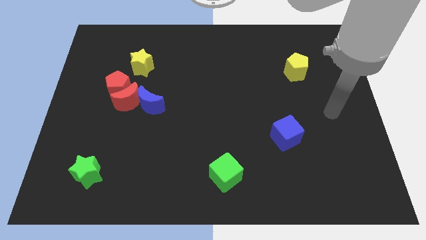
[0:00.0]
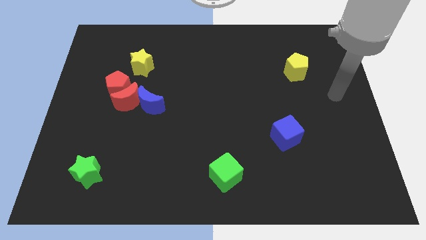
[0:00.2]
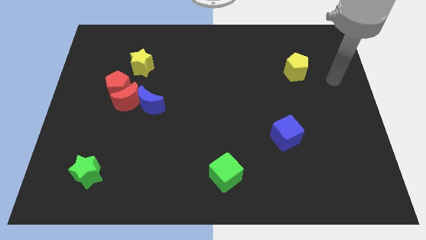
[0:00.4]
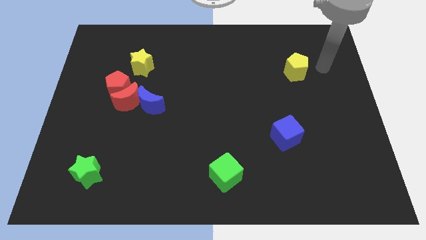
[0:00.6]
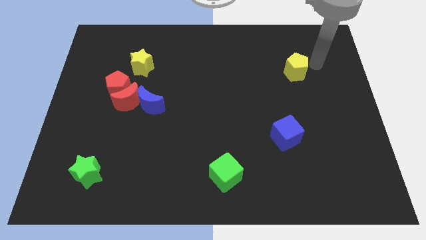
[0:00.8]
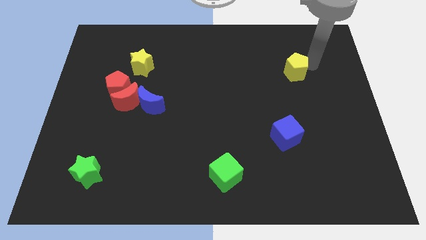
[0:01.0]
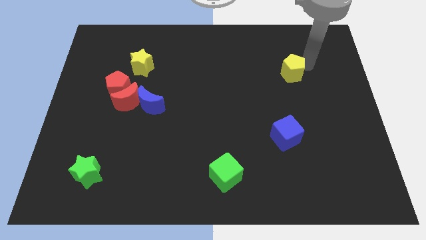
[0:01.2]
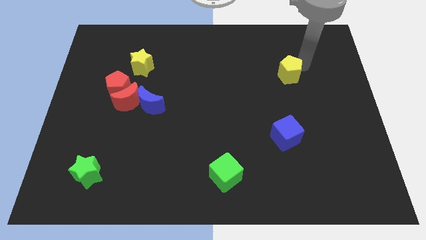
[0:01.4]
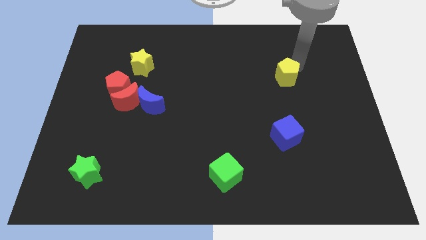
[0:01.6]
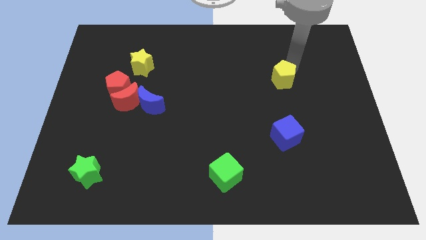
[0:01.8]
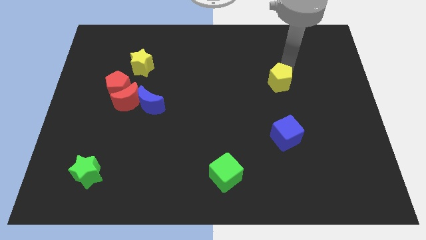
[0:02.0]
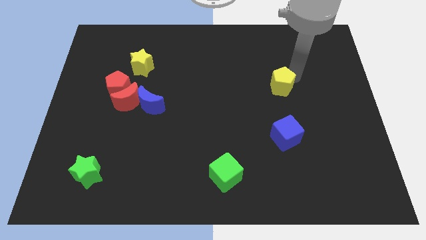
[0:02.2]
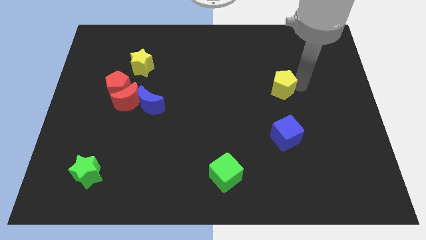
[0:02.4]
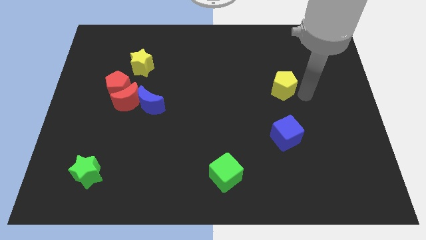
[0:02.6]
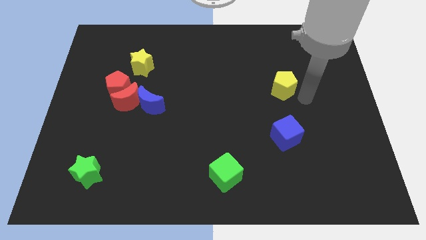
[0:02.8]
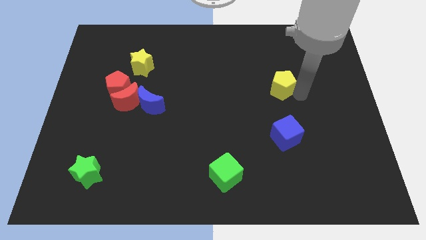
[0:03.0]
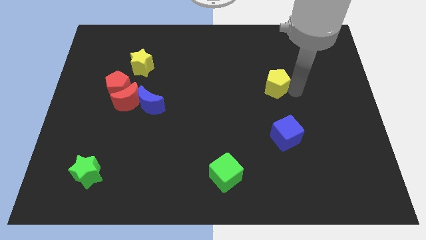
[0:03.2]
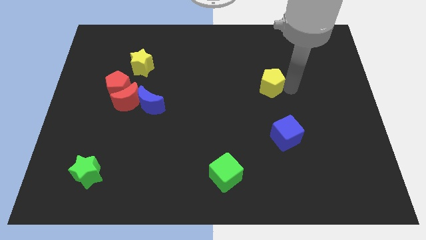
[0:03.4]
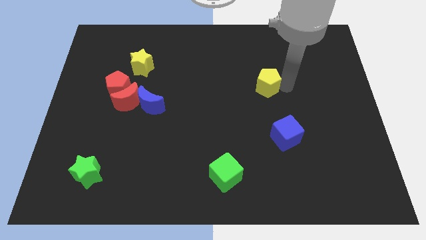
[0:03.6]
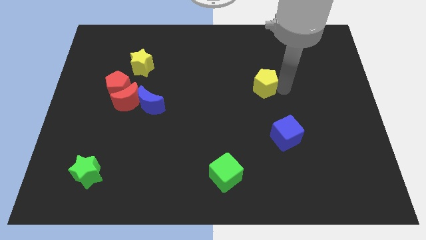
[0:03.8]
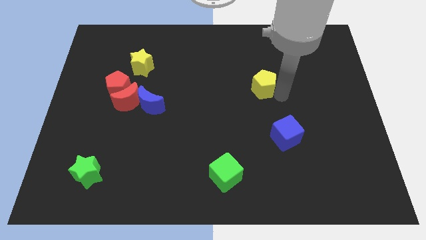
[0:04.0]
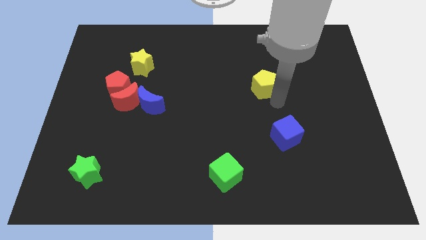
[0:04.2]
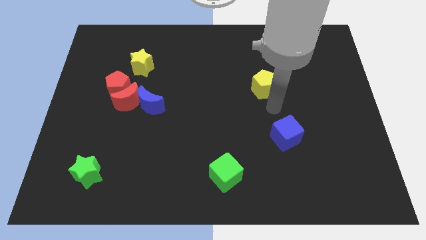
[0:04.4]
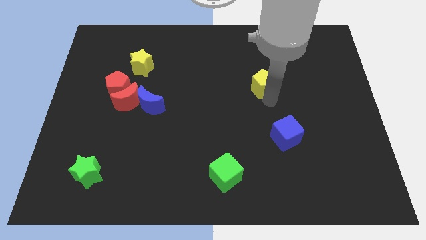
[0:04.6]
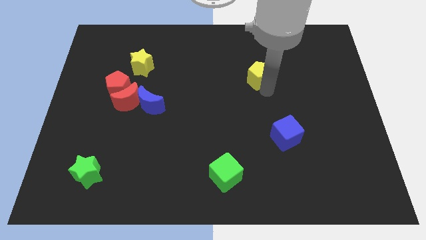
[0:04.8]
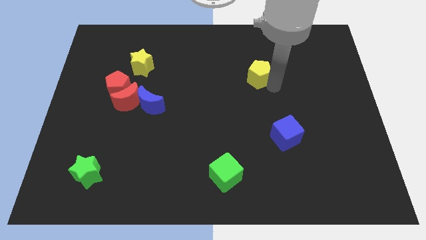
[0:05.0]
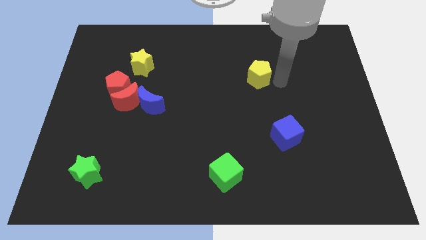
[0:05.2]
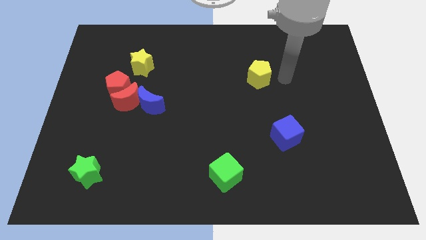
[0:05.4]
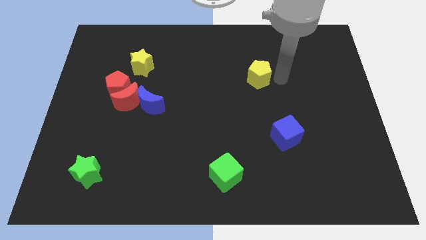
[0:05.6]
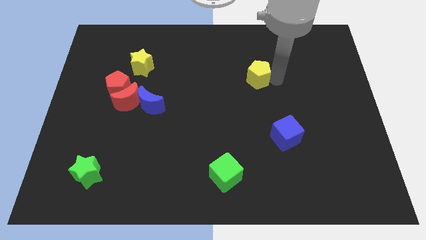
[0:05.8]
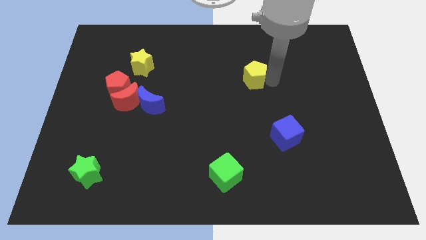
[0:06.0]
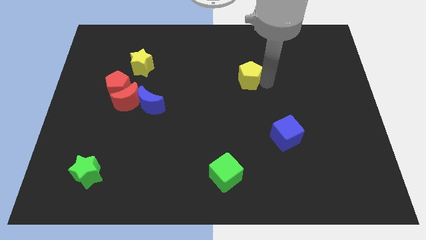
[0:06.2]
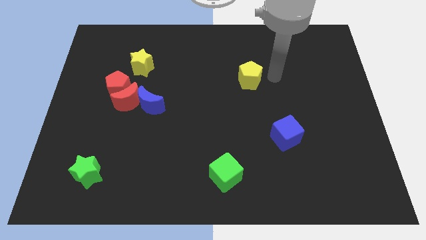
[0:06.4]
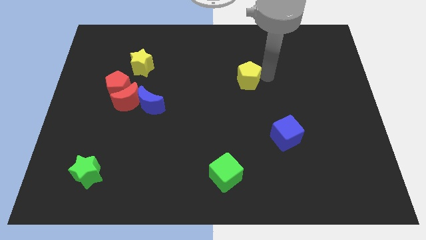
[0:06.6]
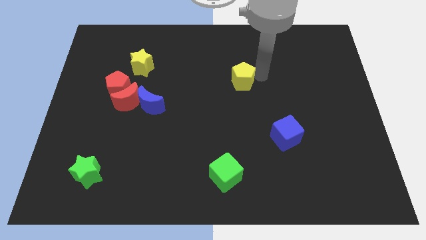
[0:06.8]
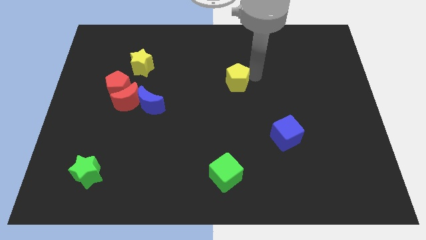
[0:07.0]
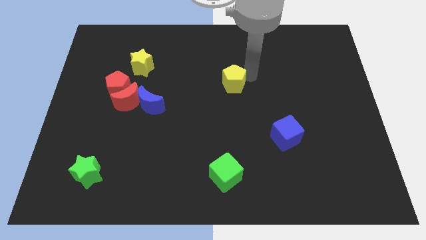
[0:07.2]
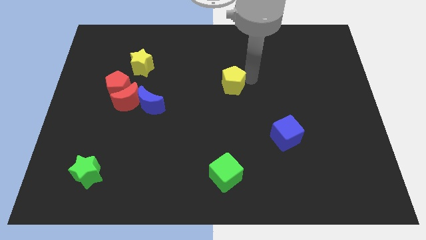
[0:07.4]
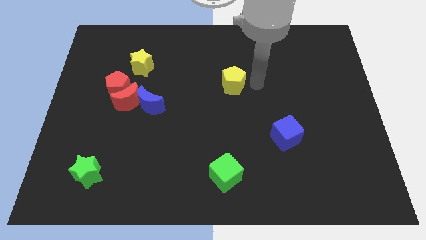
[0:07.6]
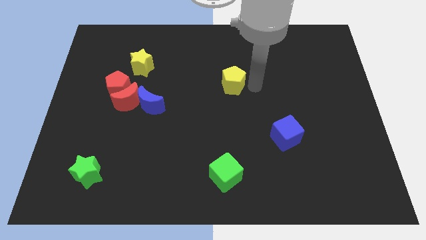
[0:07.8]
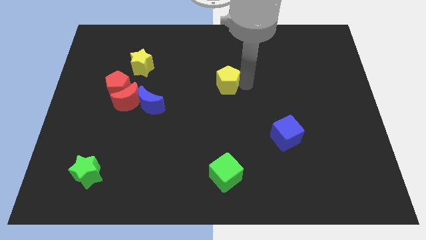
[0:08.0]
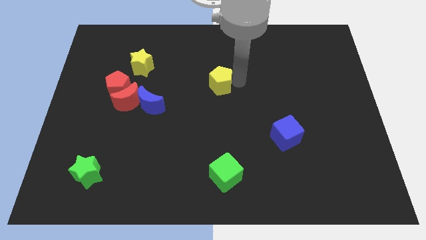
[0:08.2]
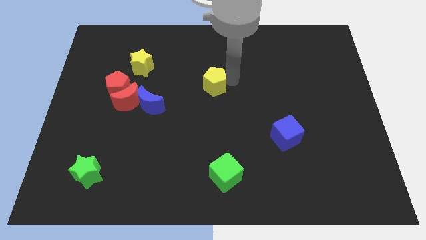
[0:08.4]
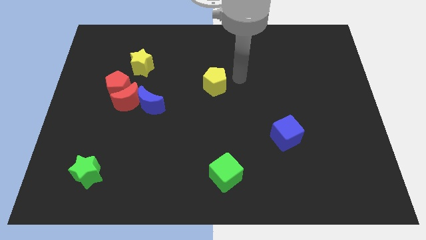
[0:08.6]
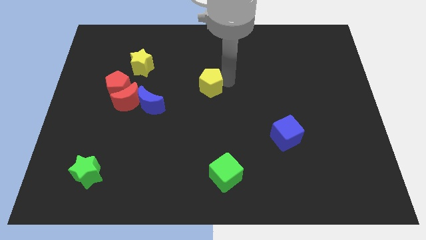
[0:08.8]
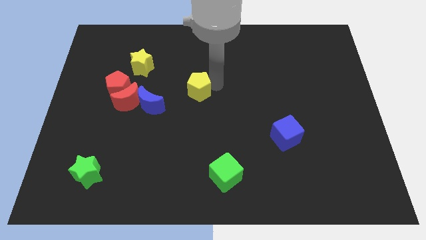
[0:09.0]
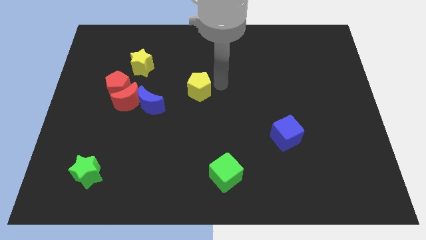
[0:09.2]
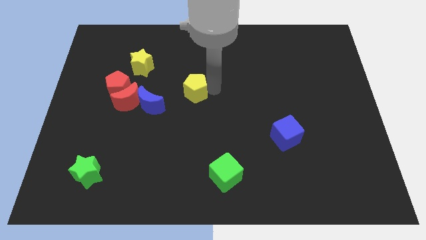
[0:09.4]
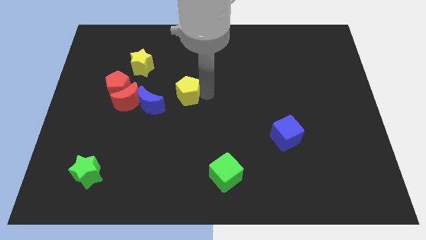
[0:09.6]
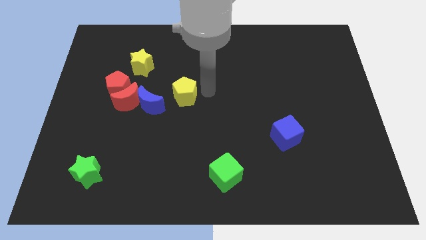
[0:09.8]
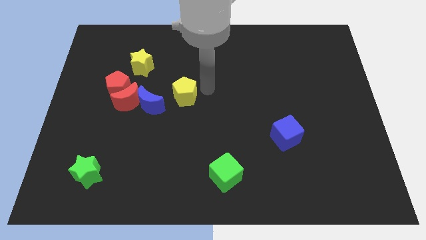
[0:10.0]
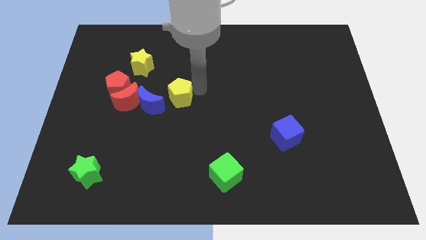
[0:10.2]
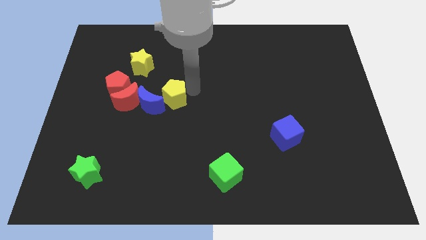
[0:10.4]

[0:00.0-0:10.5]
put the yellow pentagon to the blue moon

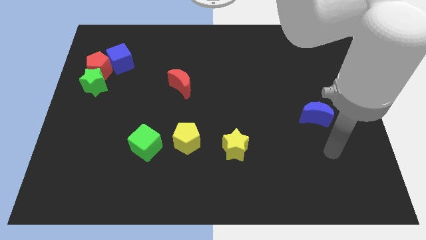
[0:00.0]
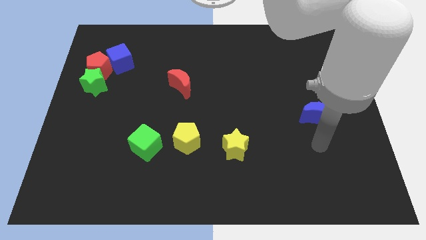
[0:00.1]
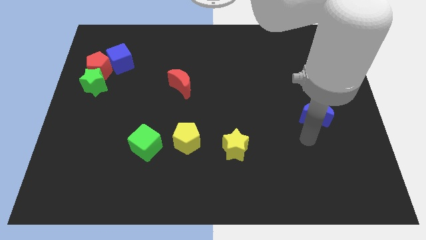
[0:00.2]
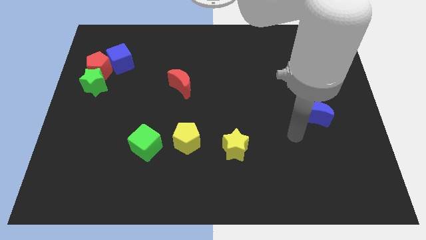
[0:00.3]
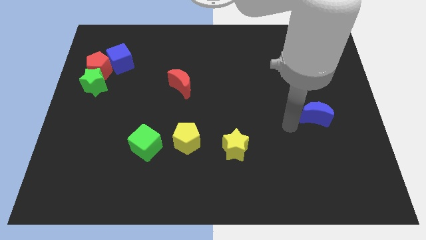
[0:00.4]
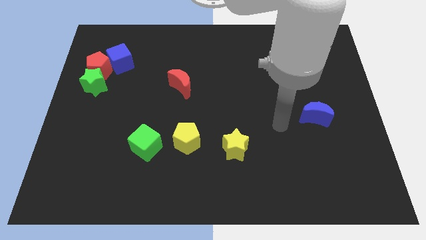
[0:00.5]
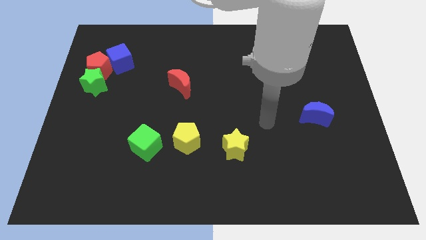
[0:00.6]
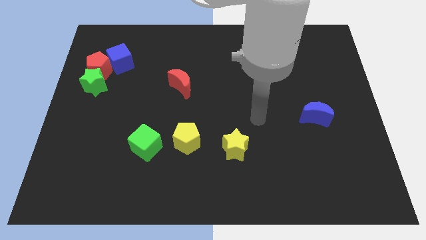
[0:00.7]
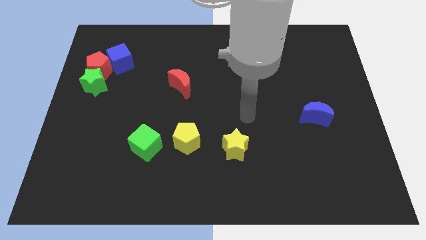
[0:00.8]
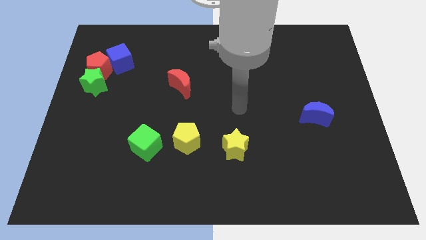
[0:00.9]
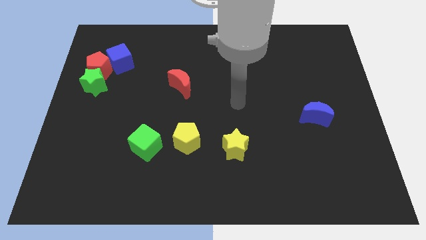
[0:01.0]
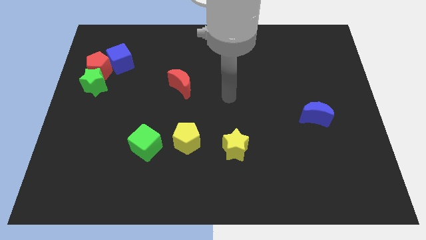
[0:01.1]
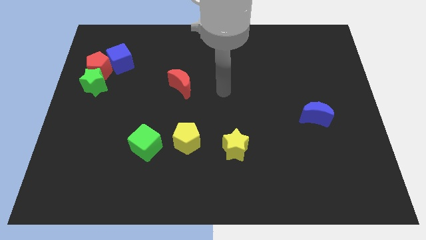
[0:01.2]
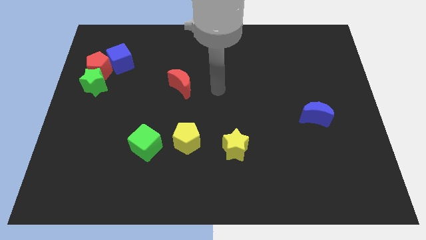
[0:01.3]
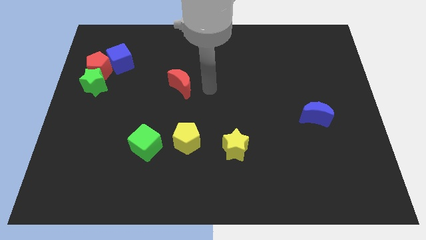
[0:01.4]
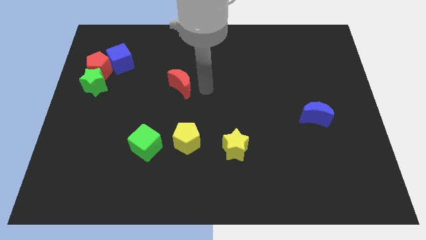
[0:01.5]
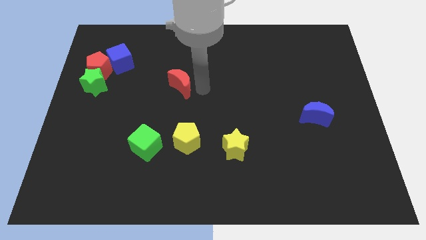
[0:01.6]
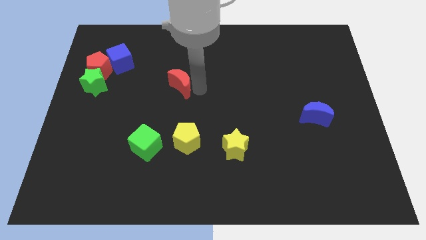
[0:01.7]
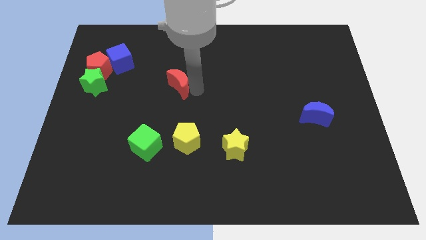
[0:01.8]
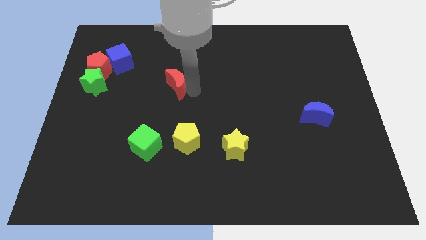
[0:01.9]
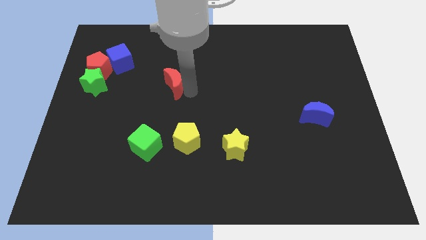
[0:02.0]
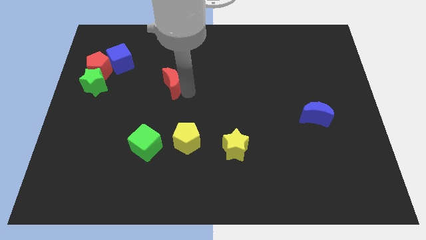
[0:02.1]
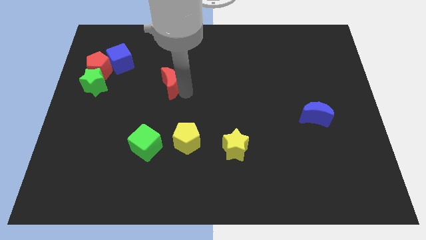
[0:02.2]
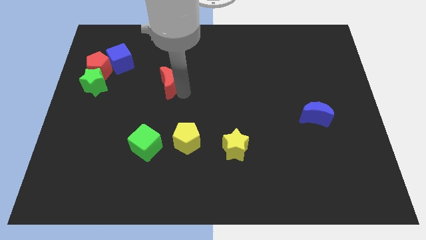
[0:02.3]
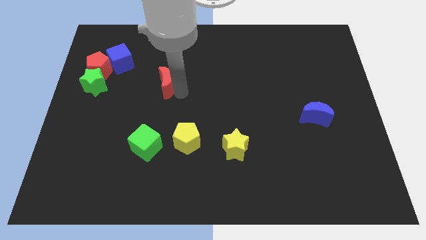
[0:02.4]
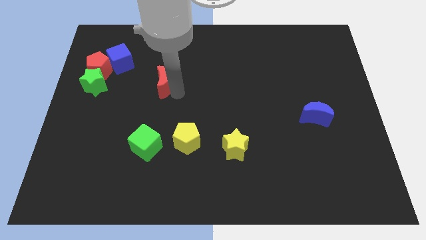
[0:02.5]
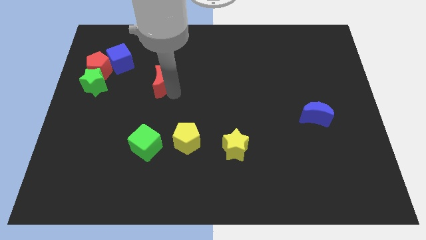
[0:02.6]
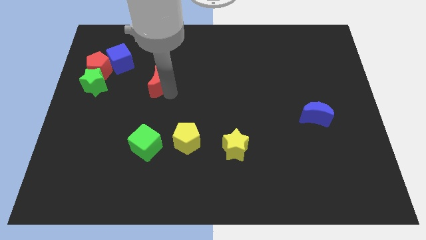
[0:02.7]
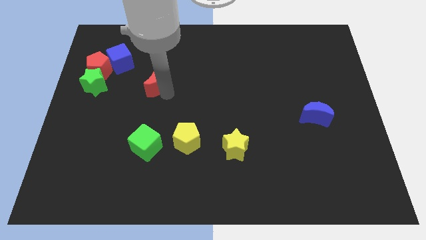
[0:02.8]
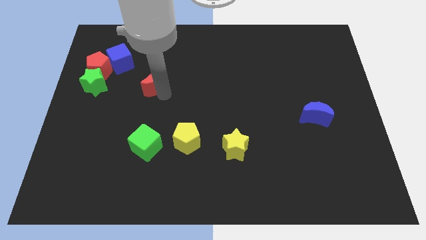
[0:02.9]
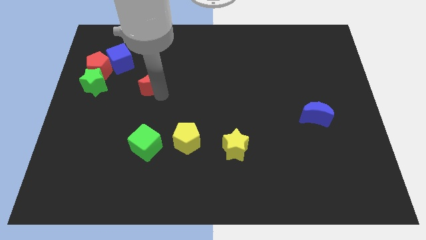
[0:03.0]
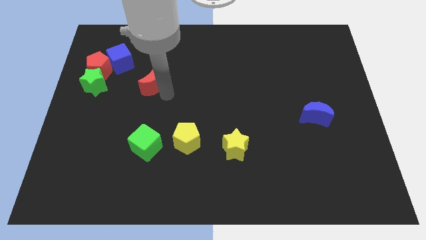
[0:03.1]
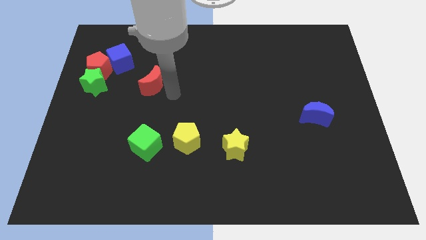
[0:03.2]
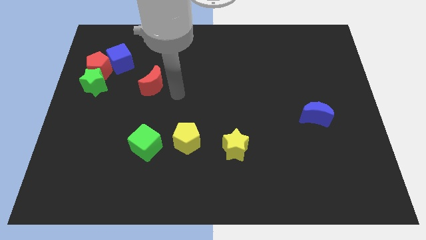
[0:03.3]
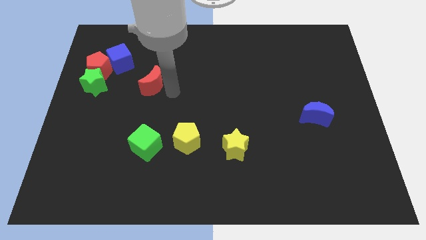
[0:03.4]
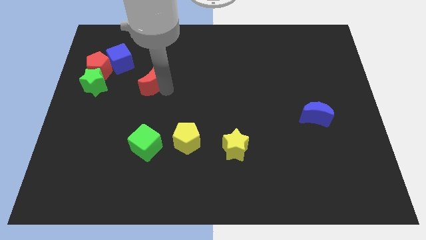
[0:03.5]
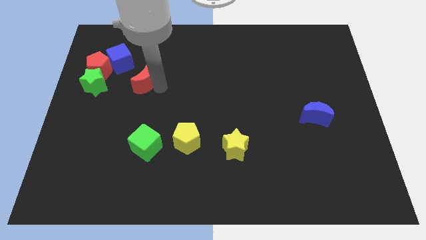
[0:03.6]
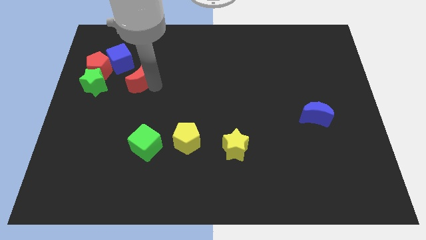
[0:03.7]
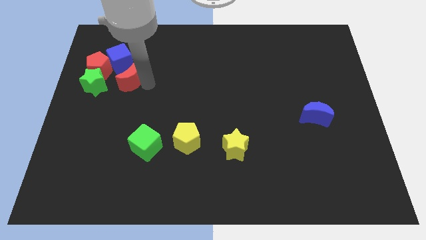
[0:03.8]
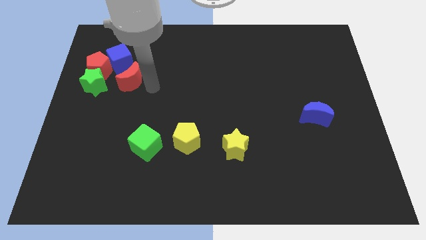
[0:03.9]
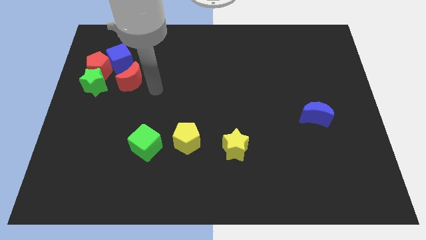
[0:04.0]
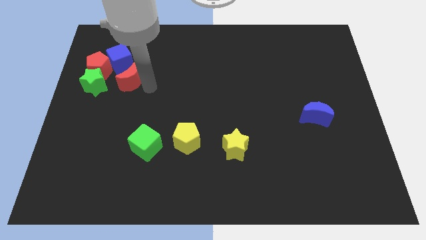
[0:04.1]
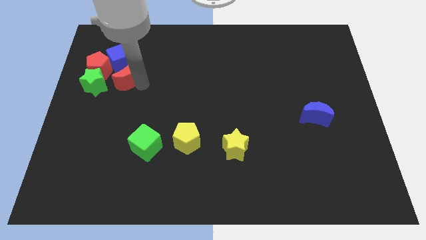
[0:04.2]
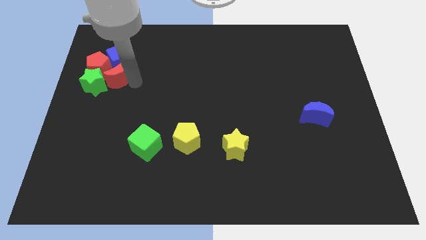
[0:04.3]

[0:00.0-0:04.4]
slide the red moon towards the red pentagon
